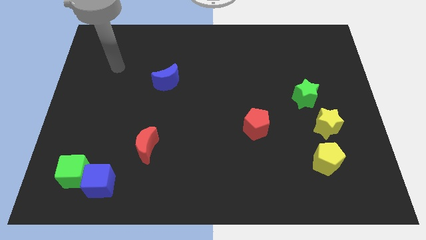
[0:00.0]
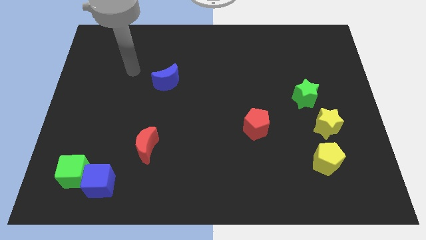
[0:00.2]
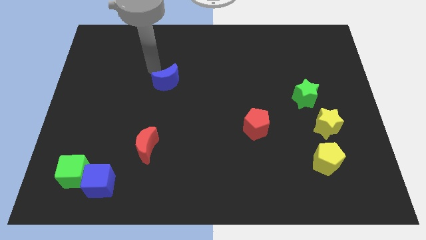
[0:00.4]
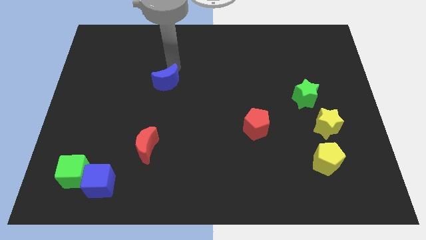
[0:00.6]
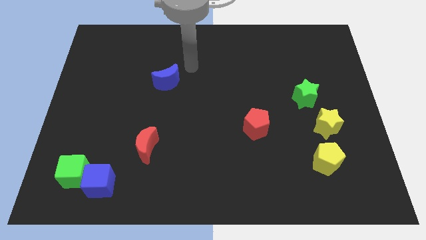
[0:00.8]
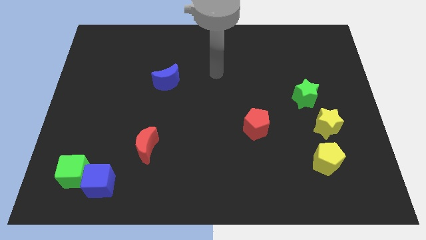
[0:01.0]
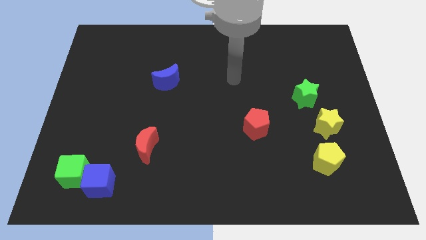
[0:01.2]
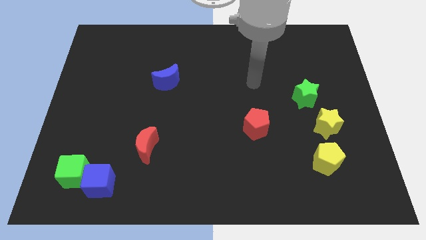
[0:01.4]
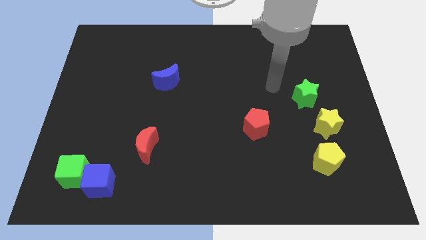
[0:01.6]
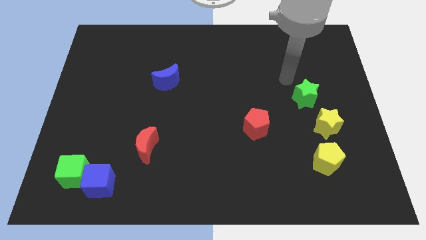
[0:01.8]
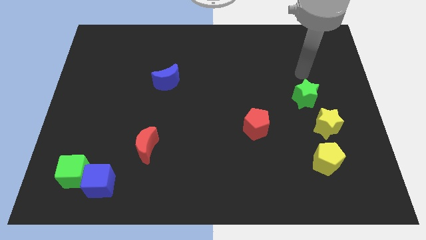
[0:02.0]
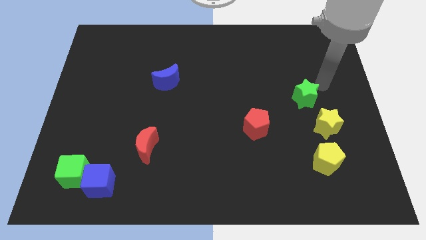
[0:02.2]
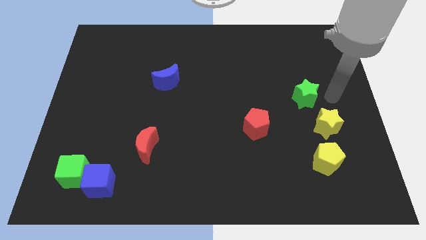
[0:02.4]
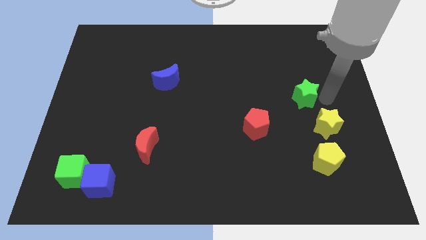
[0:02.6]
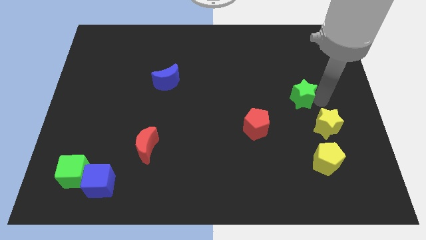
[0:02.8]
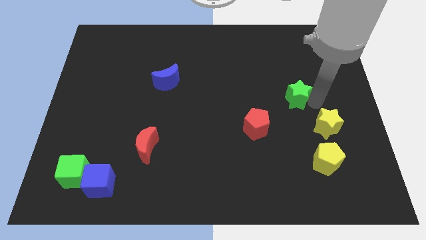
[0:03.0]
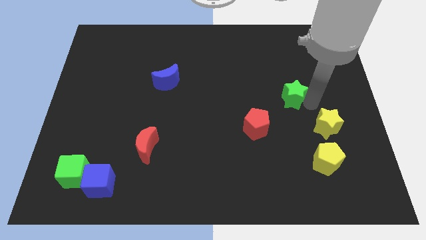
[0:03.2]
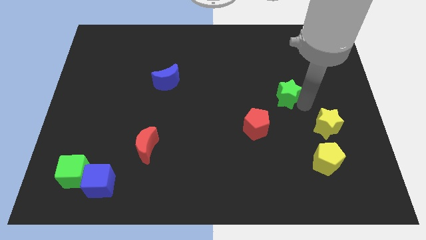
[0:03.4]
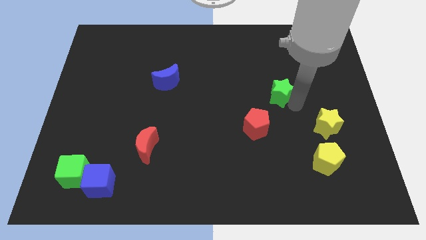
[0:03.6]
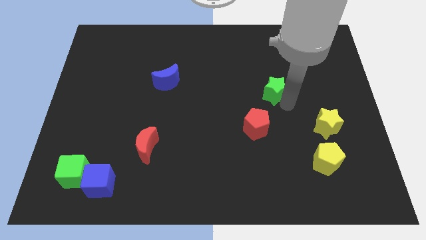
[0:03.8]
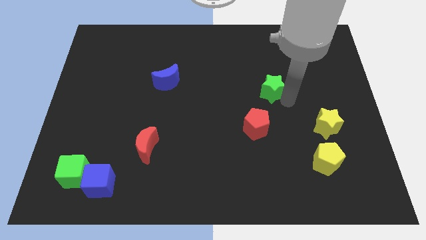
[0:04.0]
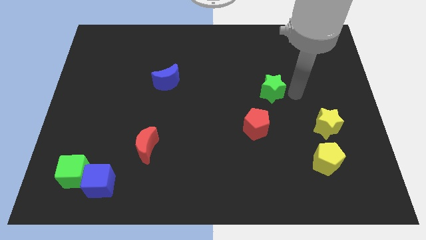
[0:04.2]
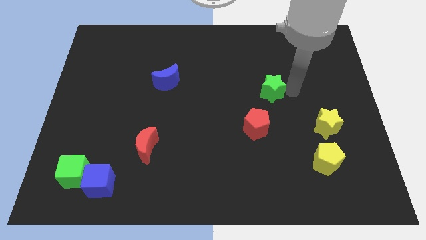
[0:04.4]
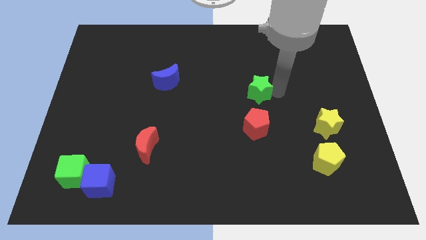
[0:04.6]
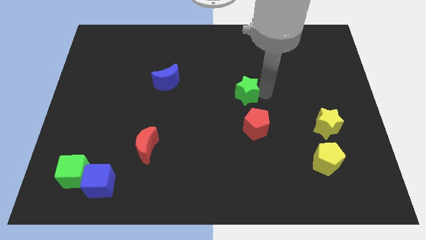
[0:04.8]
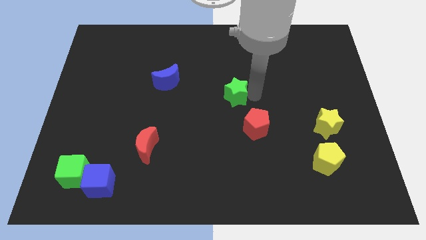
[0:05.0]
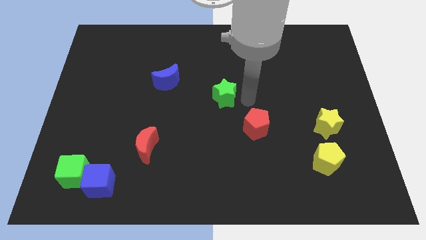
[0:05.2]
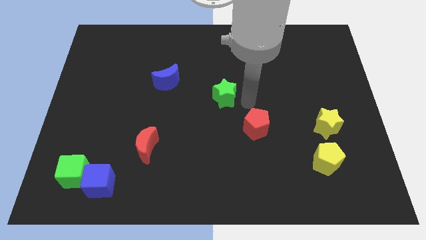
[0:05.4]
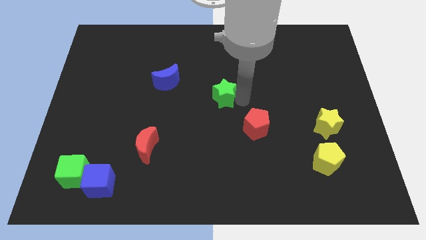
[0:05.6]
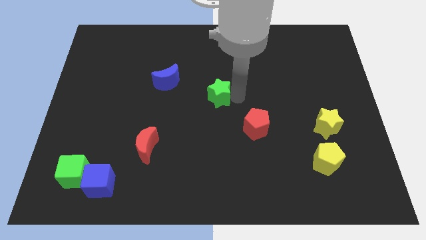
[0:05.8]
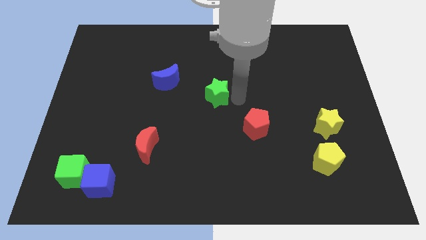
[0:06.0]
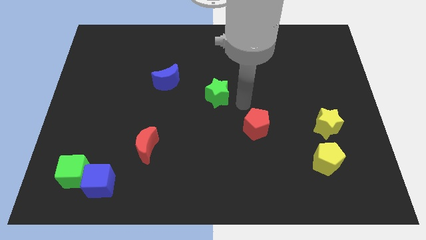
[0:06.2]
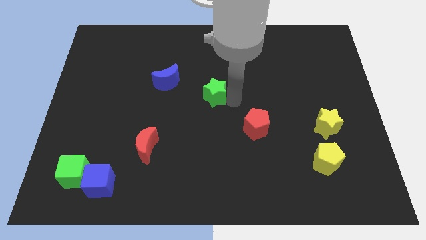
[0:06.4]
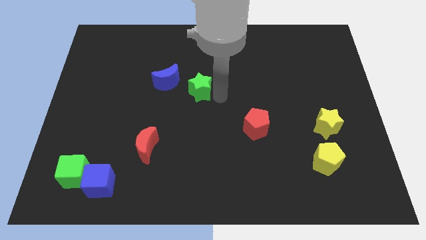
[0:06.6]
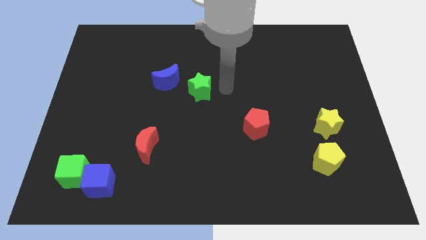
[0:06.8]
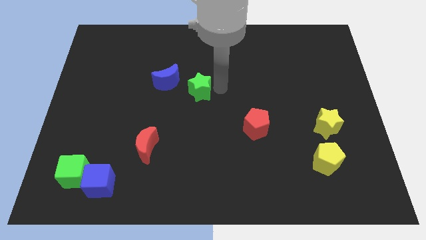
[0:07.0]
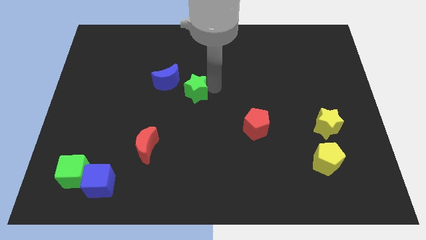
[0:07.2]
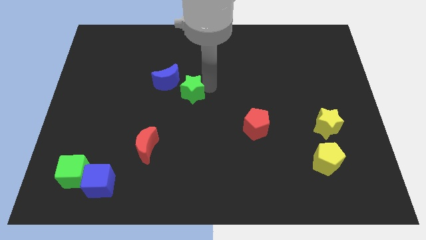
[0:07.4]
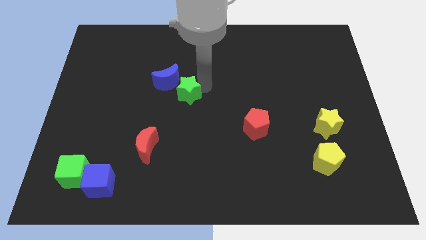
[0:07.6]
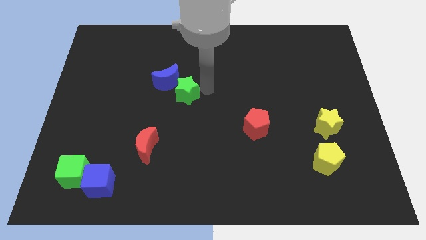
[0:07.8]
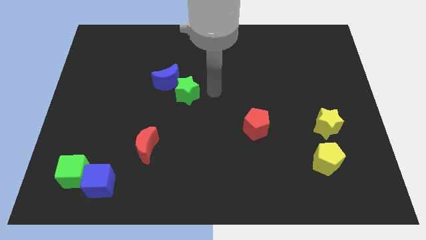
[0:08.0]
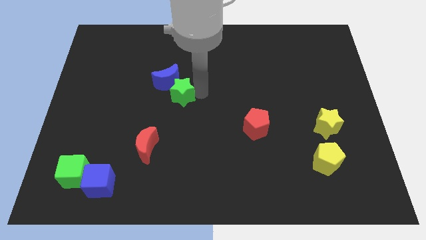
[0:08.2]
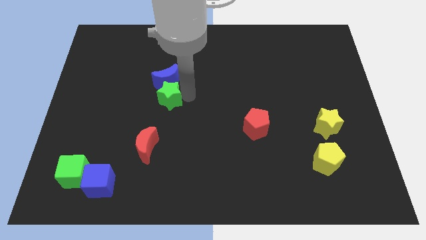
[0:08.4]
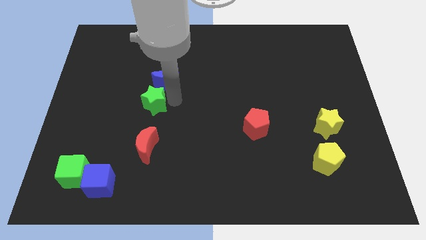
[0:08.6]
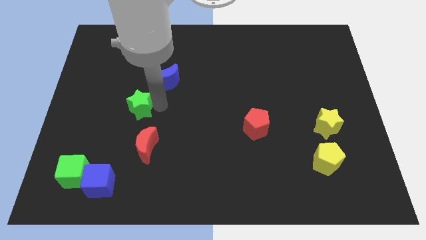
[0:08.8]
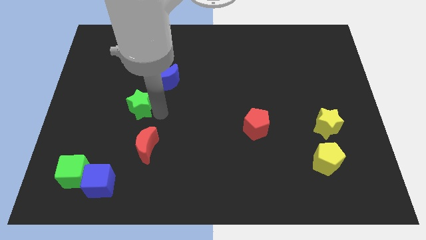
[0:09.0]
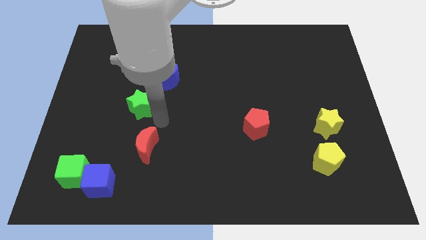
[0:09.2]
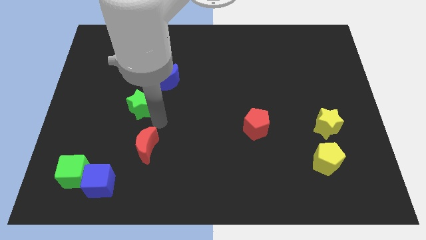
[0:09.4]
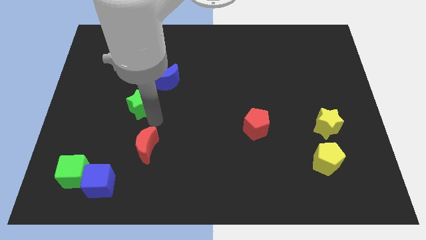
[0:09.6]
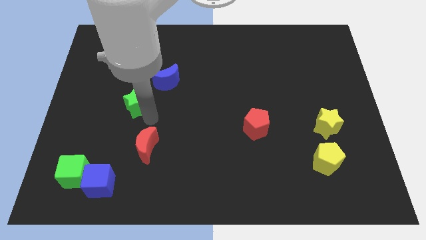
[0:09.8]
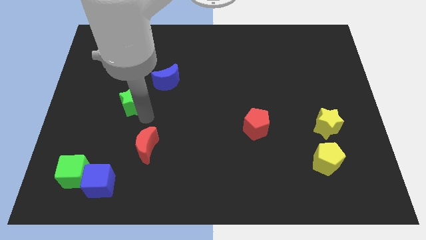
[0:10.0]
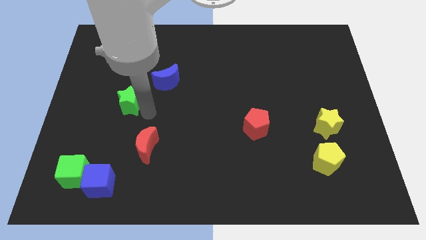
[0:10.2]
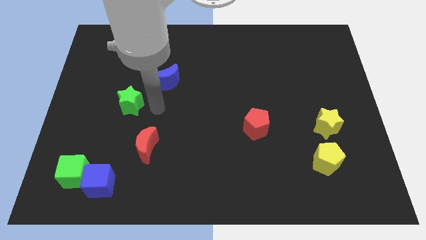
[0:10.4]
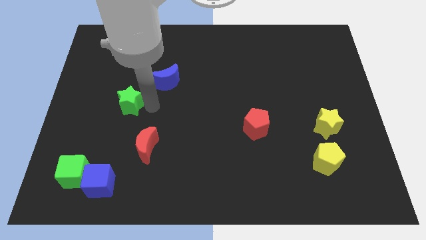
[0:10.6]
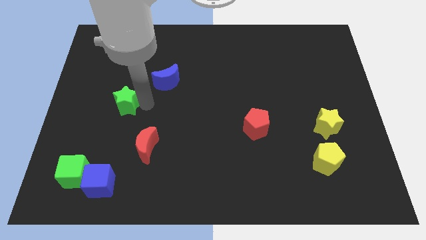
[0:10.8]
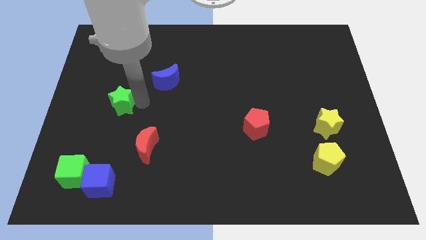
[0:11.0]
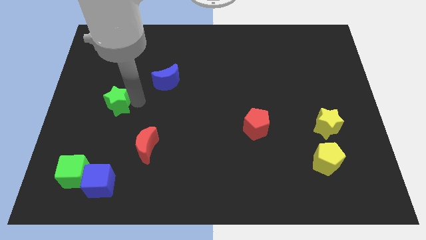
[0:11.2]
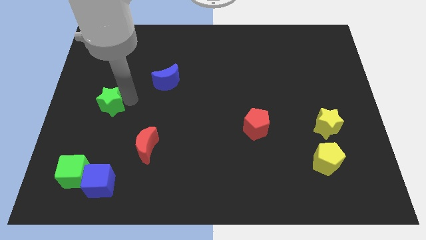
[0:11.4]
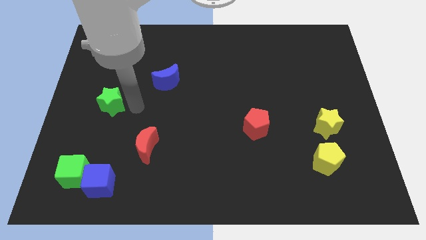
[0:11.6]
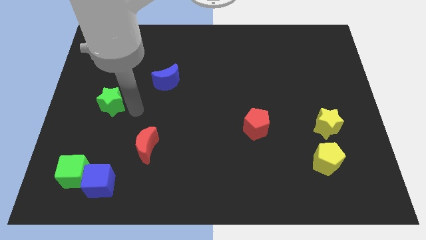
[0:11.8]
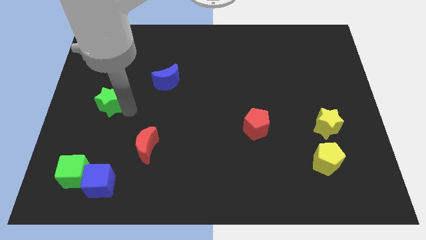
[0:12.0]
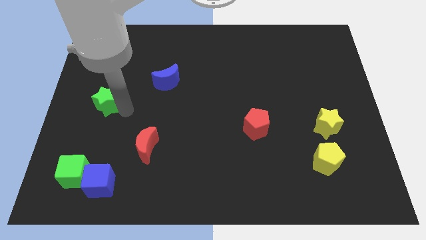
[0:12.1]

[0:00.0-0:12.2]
push the green star to the center left

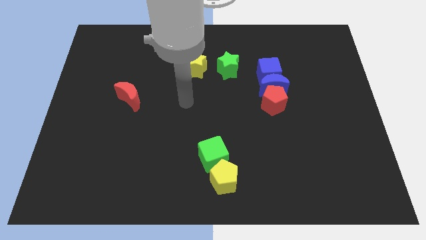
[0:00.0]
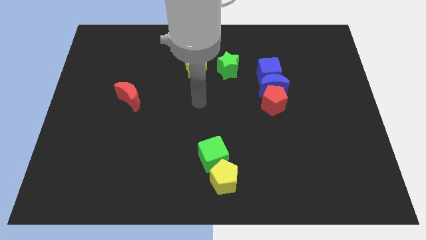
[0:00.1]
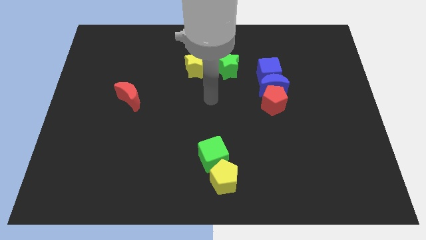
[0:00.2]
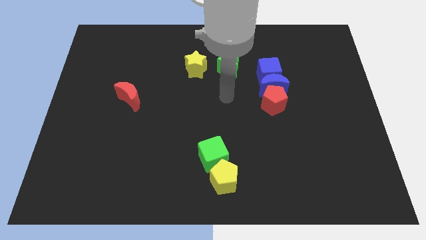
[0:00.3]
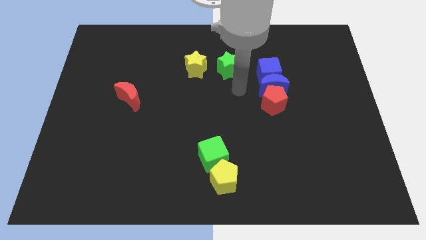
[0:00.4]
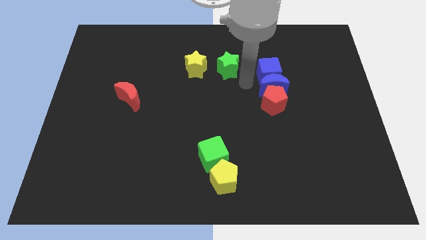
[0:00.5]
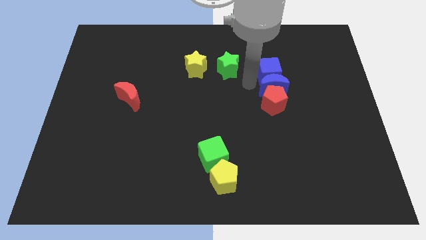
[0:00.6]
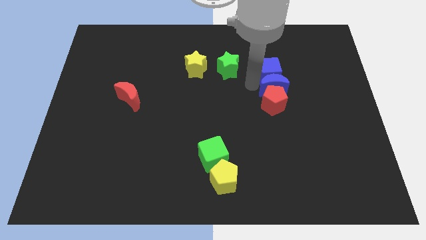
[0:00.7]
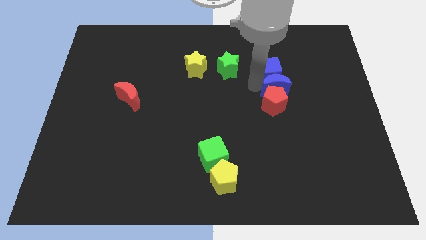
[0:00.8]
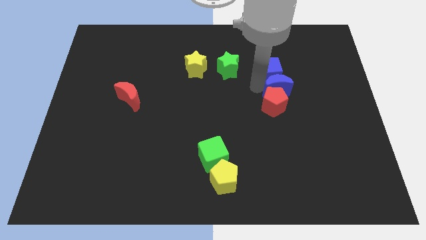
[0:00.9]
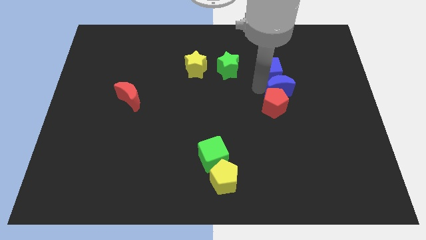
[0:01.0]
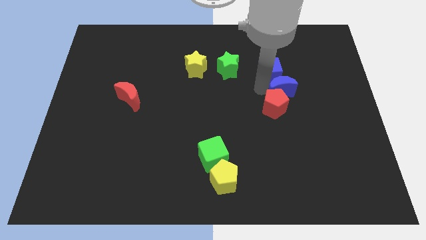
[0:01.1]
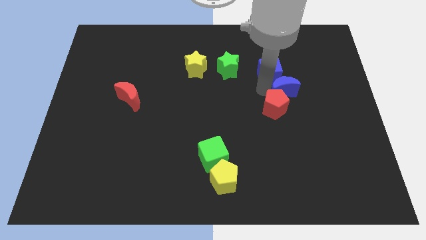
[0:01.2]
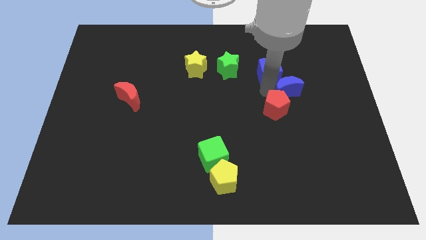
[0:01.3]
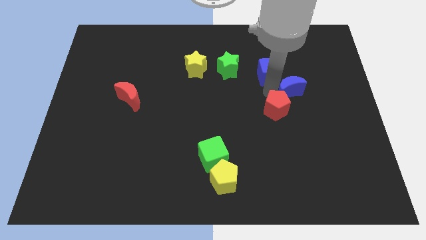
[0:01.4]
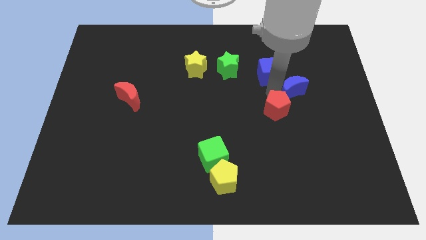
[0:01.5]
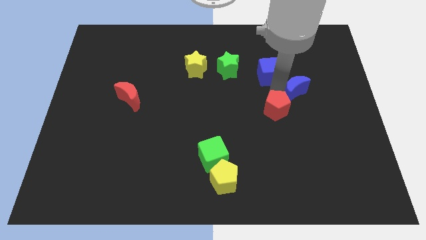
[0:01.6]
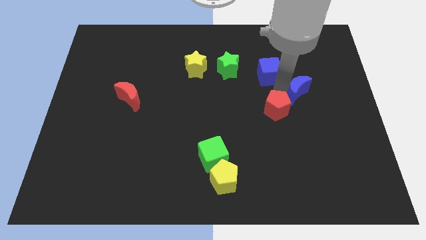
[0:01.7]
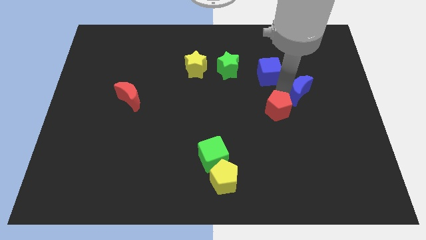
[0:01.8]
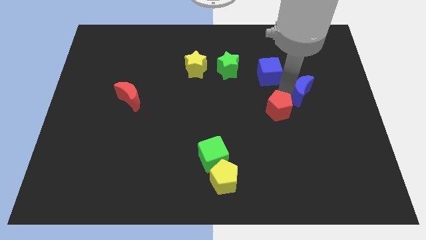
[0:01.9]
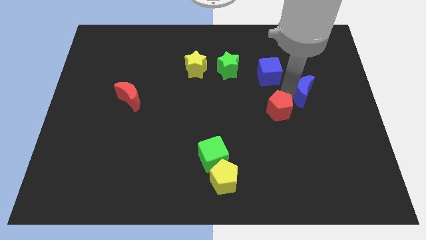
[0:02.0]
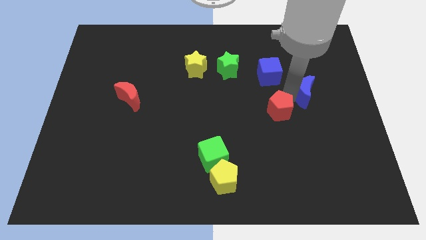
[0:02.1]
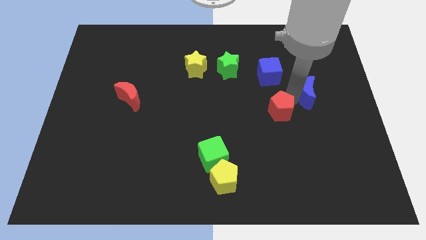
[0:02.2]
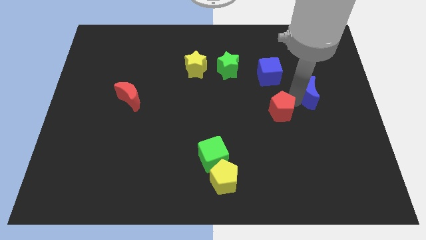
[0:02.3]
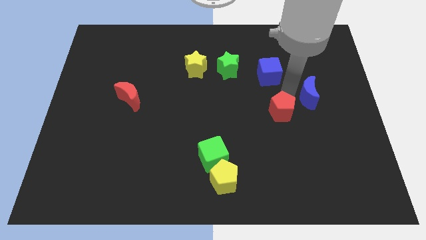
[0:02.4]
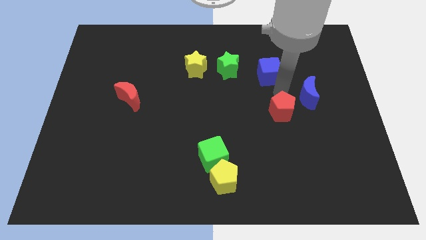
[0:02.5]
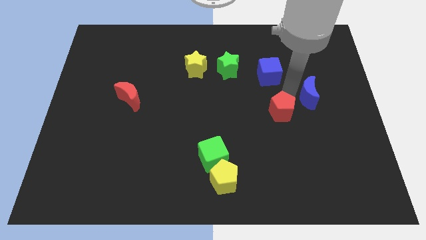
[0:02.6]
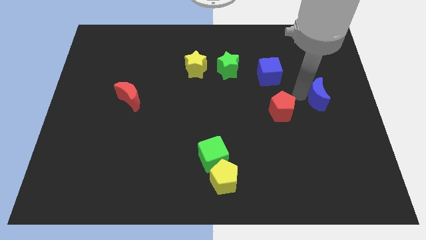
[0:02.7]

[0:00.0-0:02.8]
push the blue moon to the right side
